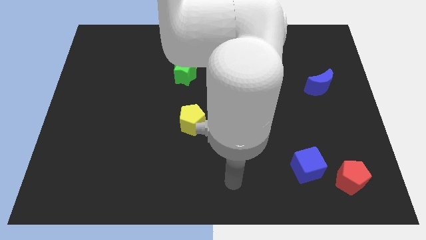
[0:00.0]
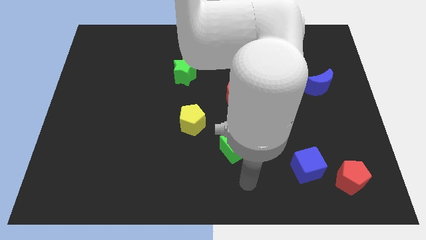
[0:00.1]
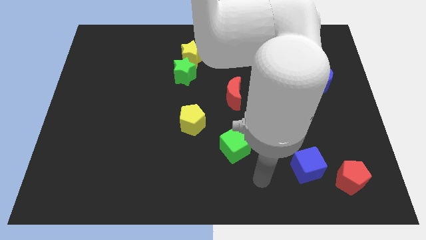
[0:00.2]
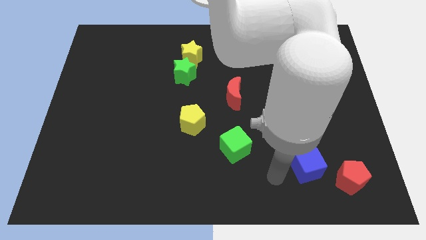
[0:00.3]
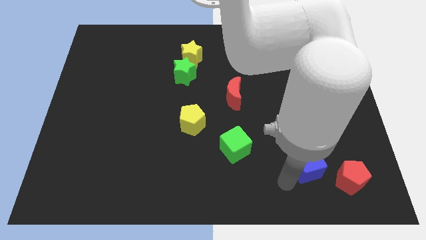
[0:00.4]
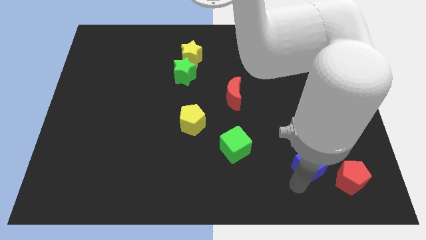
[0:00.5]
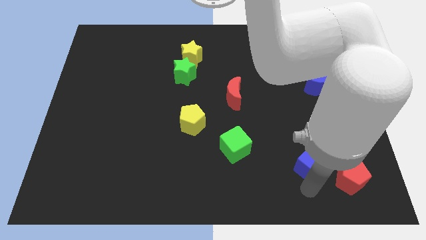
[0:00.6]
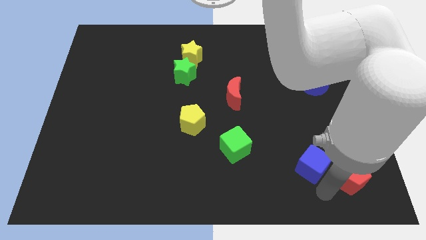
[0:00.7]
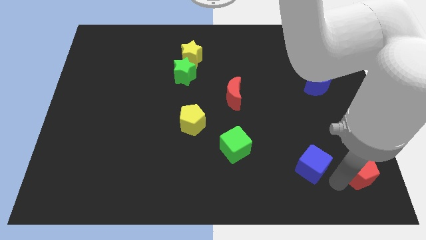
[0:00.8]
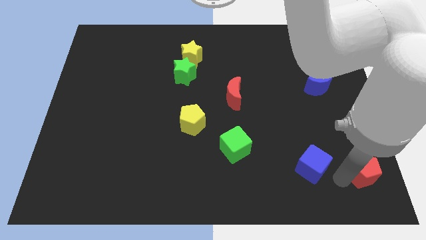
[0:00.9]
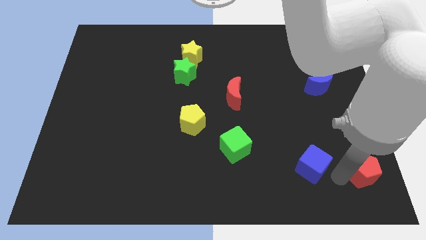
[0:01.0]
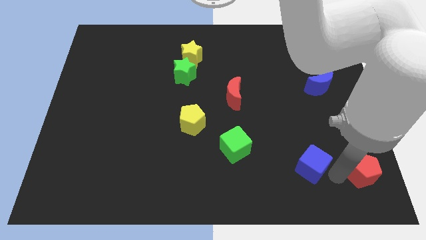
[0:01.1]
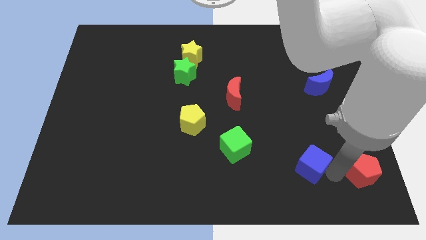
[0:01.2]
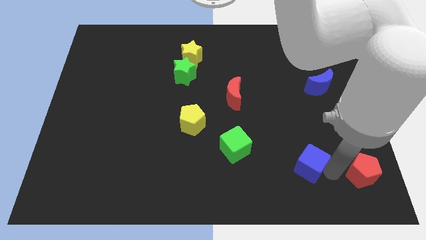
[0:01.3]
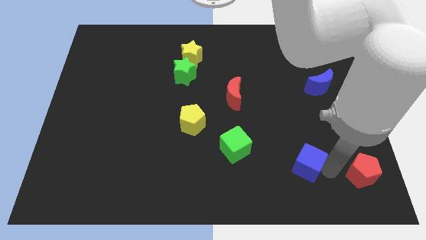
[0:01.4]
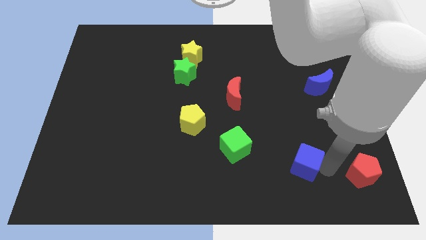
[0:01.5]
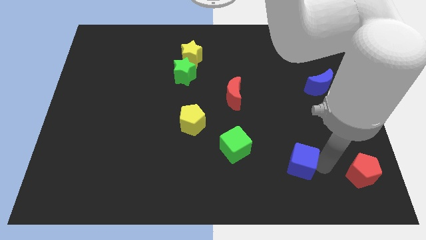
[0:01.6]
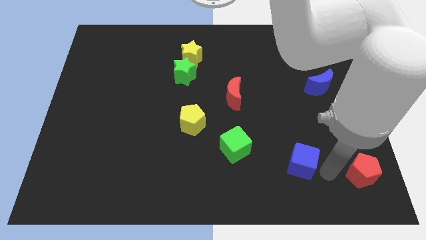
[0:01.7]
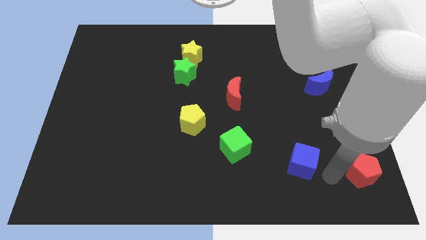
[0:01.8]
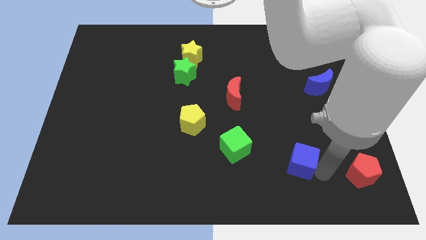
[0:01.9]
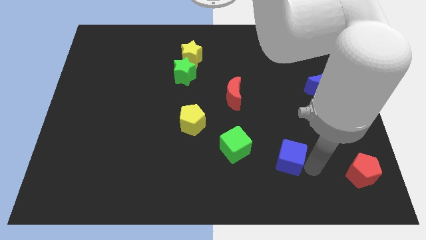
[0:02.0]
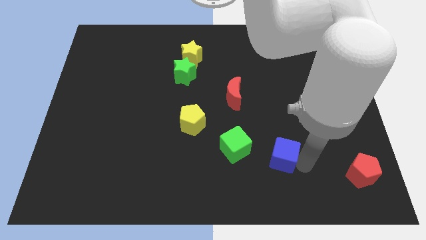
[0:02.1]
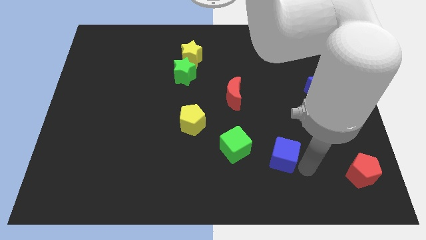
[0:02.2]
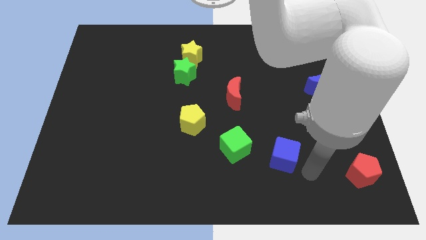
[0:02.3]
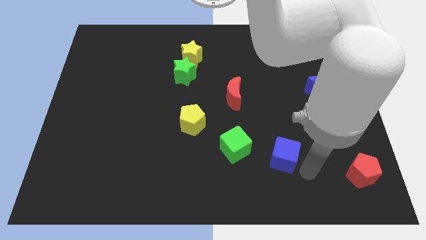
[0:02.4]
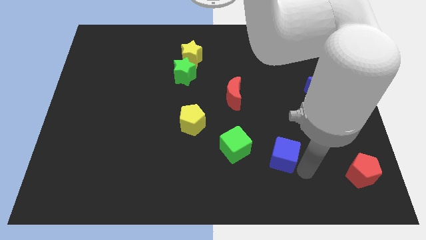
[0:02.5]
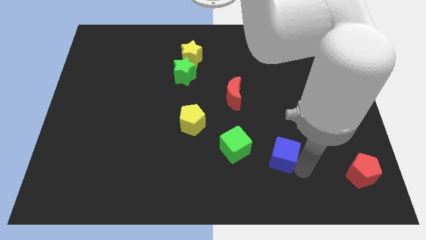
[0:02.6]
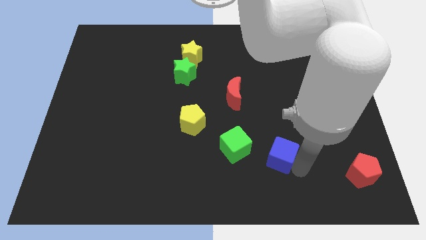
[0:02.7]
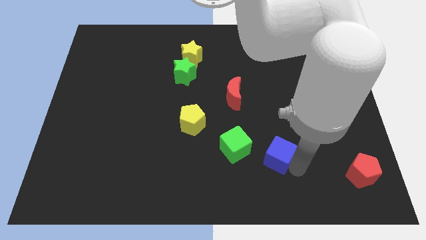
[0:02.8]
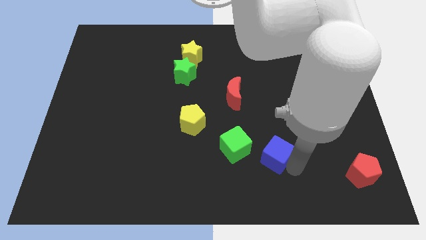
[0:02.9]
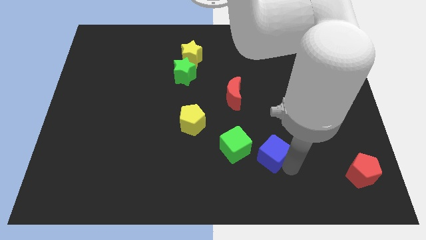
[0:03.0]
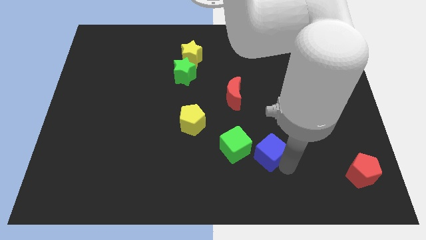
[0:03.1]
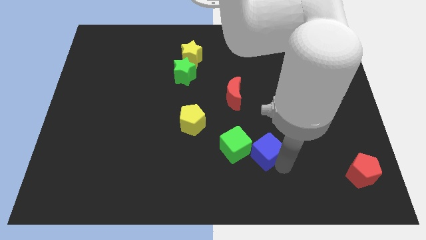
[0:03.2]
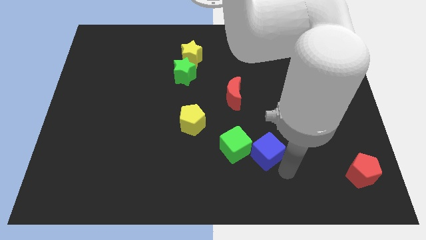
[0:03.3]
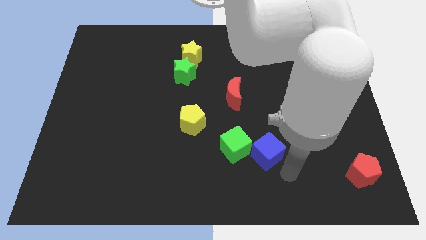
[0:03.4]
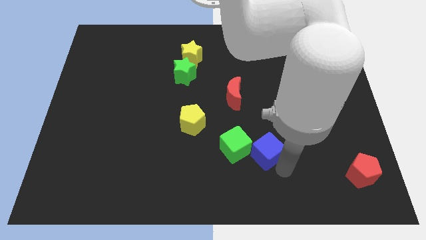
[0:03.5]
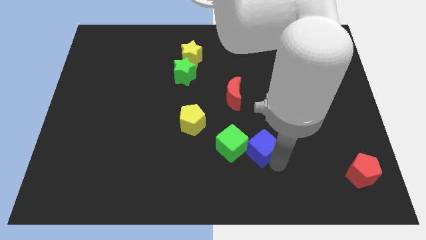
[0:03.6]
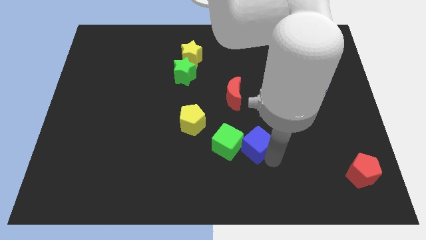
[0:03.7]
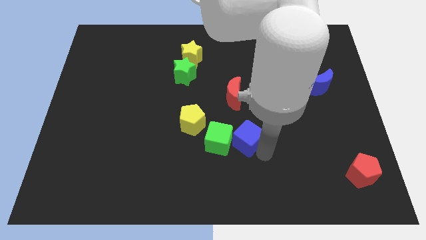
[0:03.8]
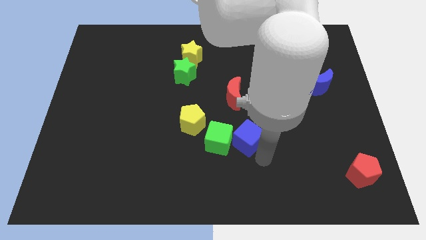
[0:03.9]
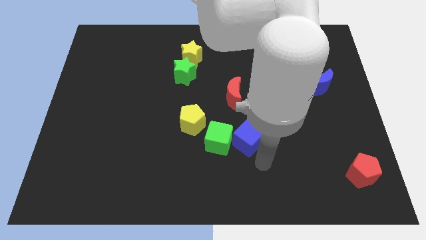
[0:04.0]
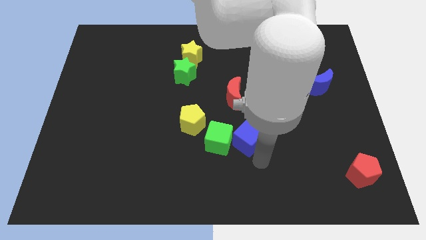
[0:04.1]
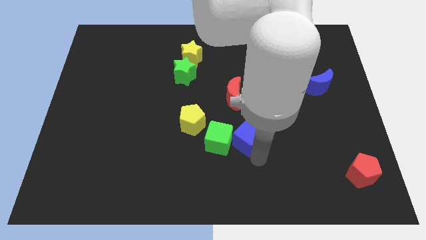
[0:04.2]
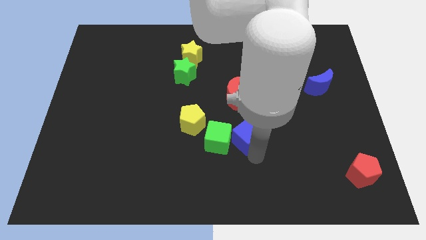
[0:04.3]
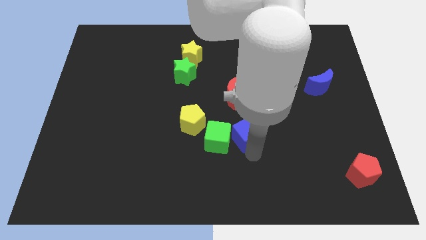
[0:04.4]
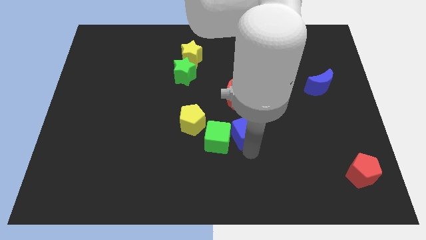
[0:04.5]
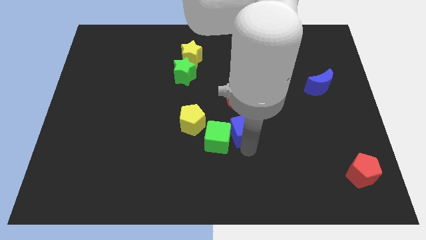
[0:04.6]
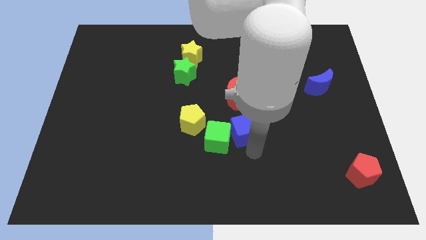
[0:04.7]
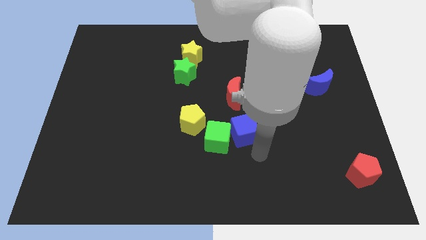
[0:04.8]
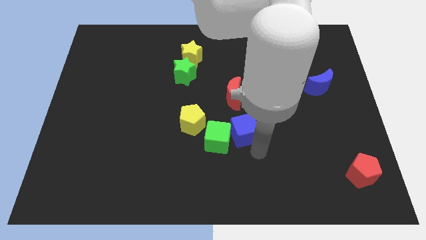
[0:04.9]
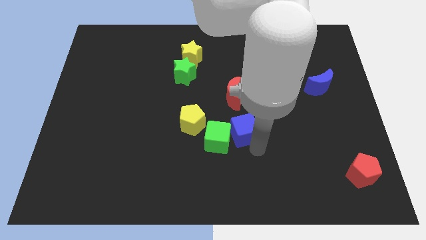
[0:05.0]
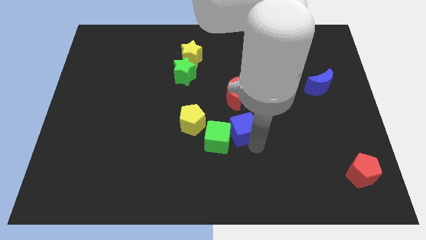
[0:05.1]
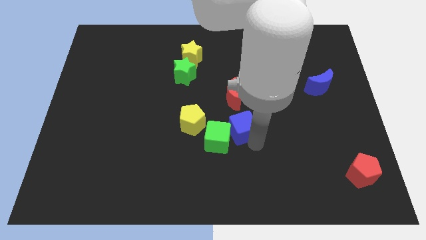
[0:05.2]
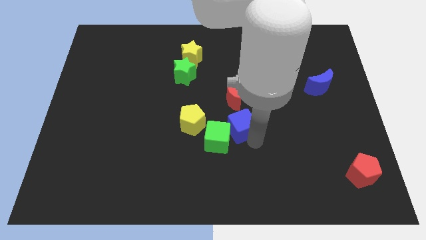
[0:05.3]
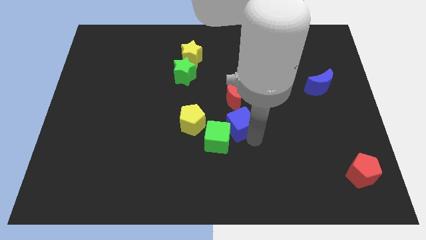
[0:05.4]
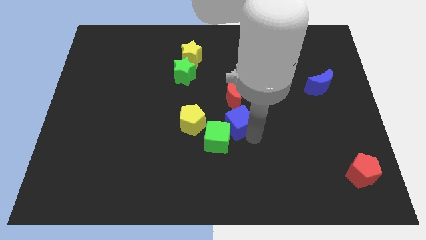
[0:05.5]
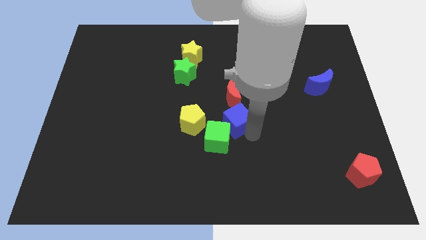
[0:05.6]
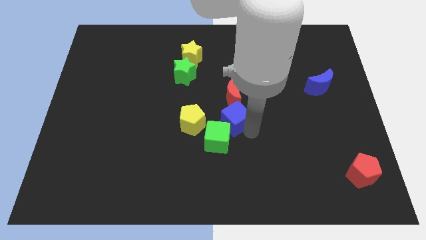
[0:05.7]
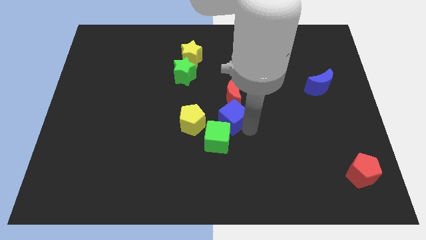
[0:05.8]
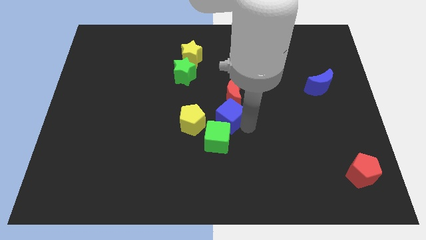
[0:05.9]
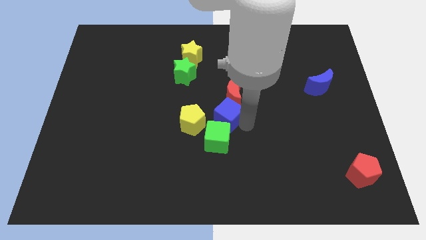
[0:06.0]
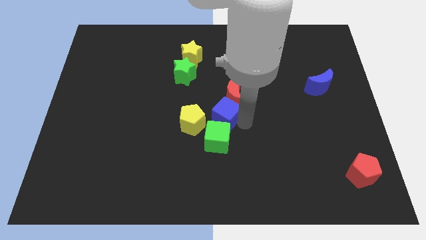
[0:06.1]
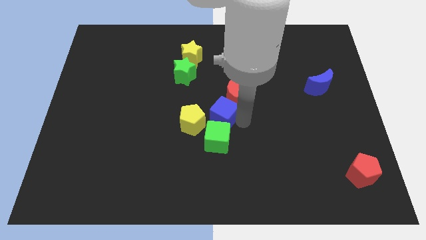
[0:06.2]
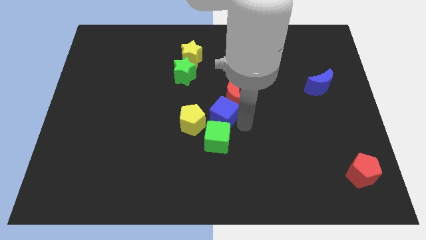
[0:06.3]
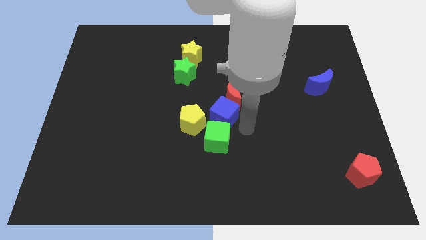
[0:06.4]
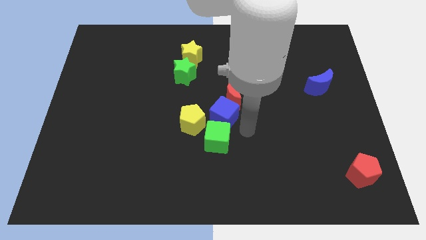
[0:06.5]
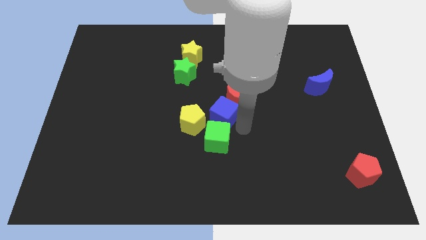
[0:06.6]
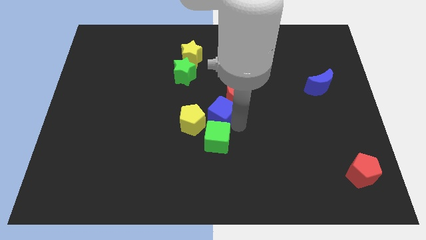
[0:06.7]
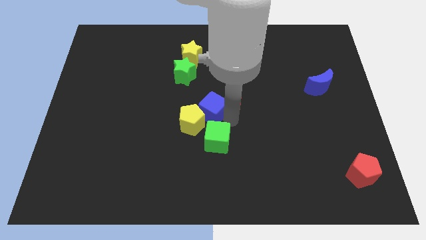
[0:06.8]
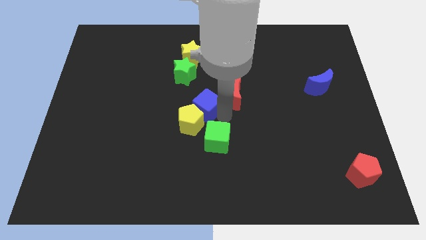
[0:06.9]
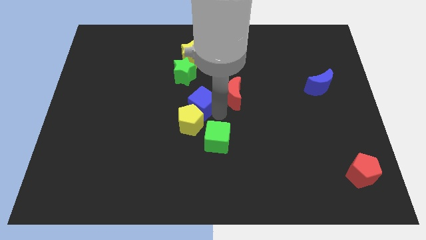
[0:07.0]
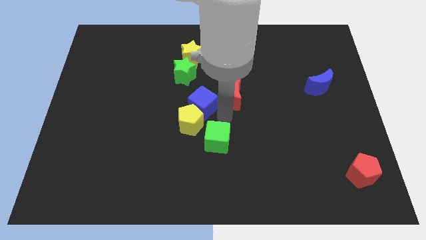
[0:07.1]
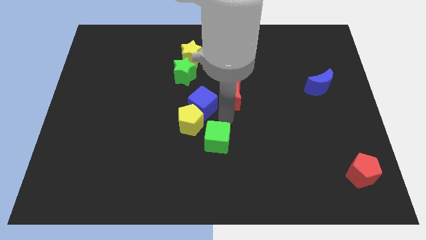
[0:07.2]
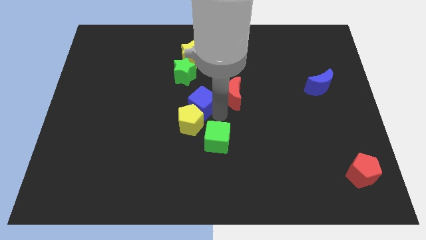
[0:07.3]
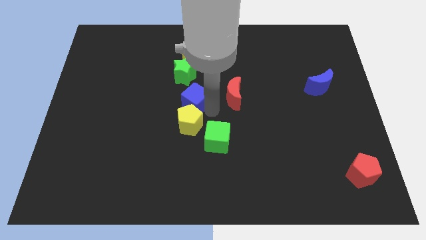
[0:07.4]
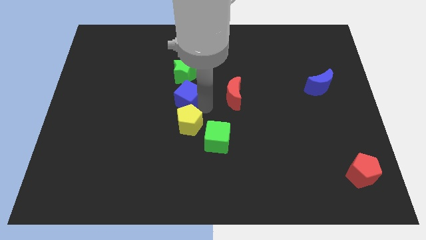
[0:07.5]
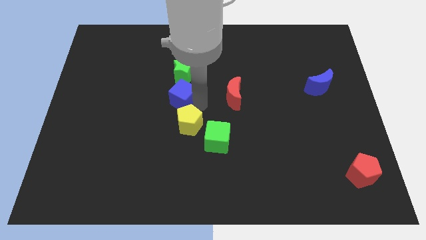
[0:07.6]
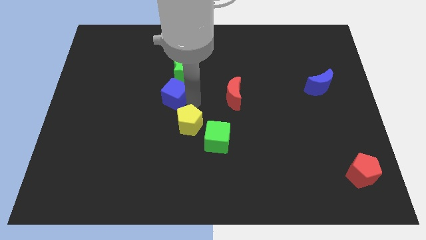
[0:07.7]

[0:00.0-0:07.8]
put the blue cube to the bottom left side of the green star
